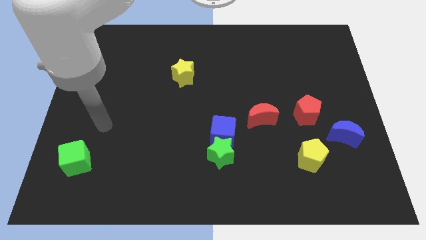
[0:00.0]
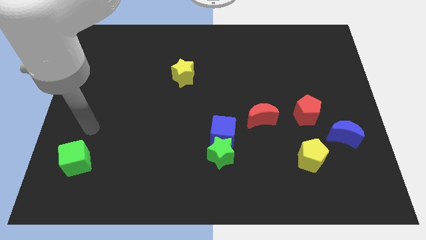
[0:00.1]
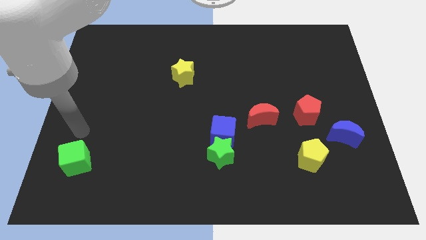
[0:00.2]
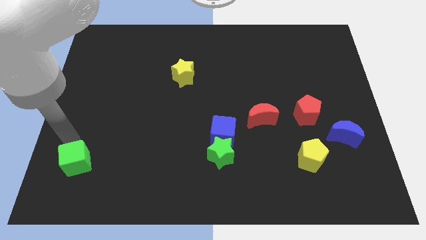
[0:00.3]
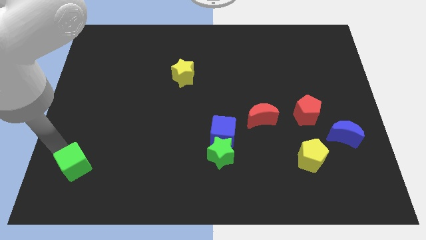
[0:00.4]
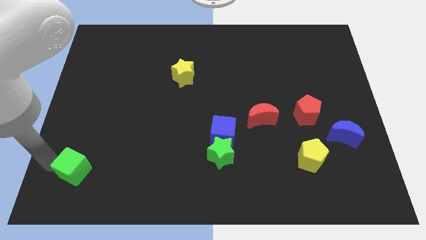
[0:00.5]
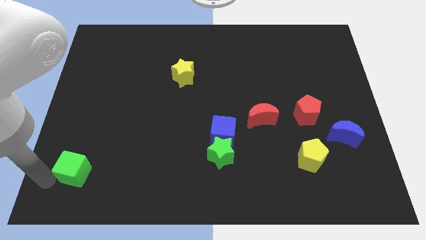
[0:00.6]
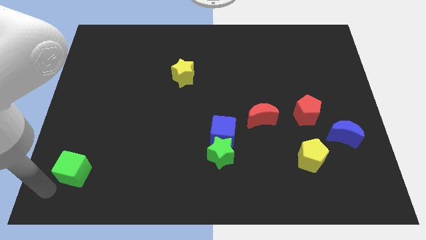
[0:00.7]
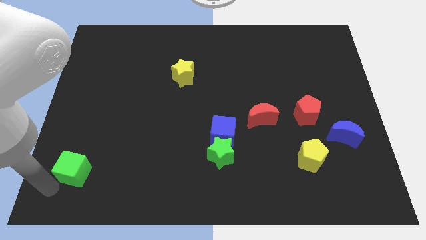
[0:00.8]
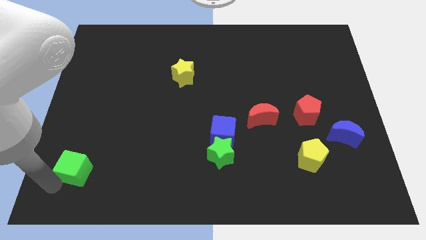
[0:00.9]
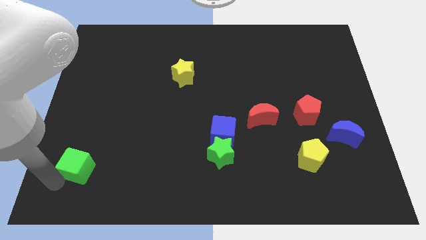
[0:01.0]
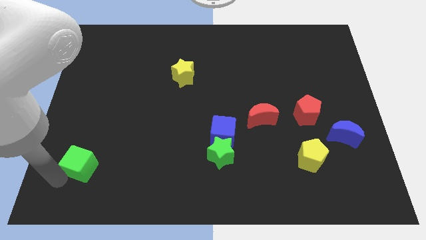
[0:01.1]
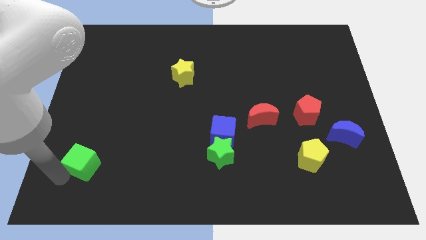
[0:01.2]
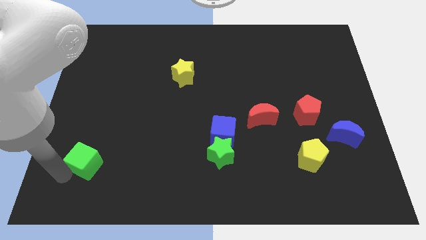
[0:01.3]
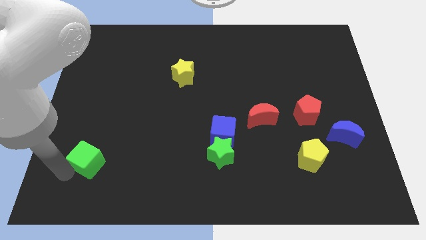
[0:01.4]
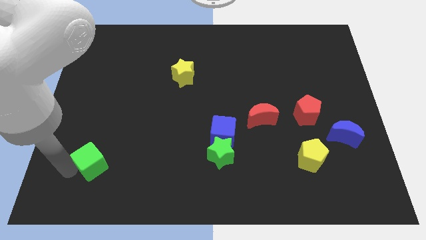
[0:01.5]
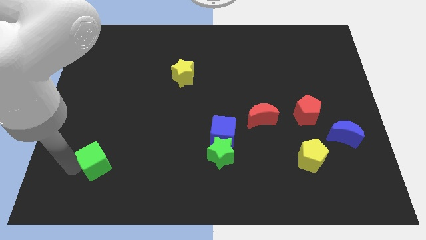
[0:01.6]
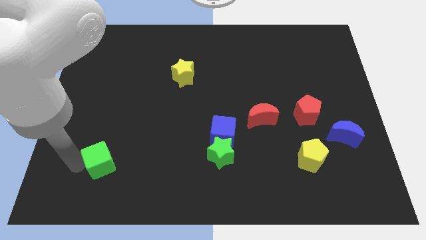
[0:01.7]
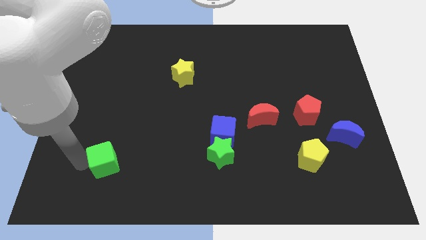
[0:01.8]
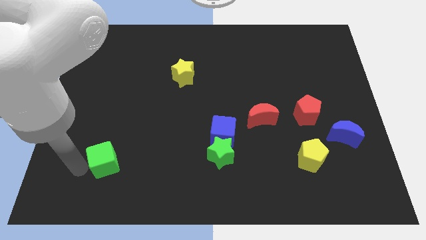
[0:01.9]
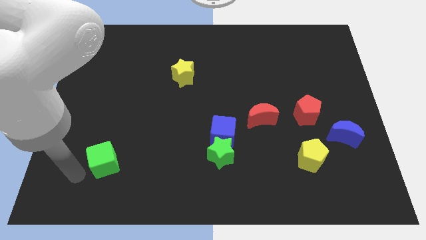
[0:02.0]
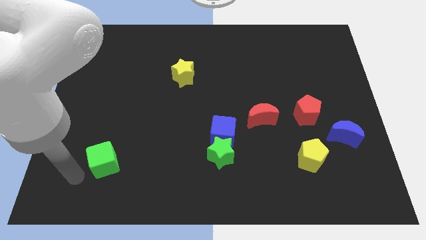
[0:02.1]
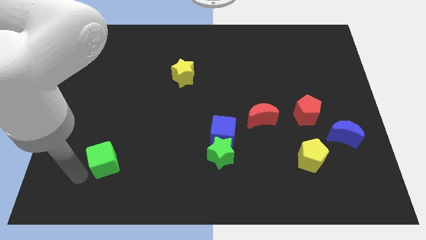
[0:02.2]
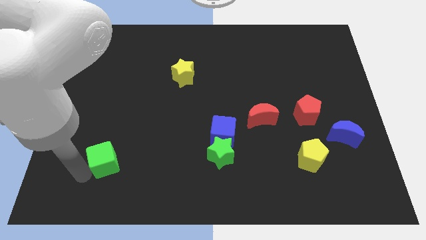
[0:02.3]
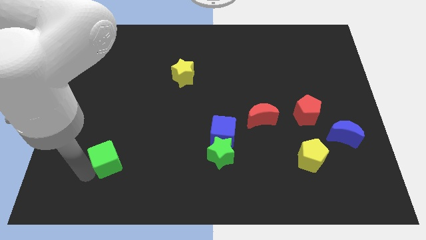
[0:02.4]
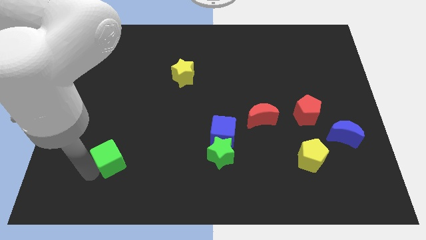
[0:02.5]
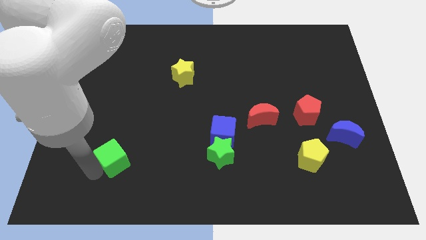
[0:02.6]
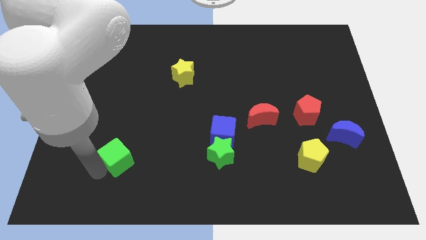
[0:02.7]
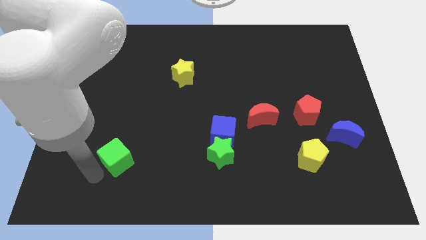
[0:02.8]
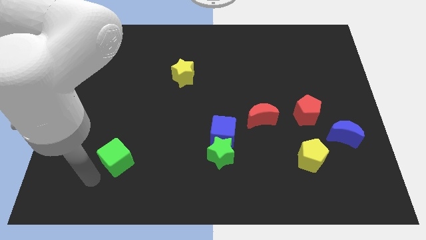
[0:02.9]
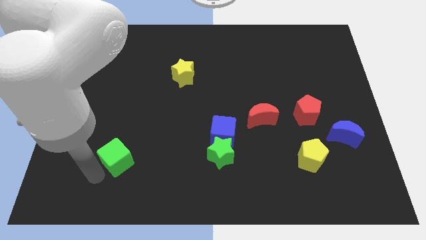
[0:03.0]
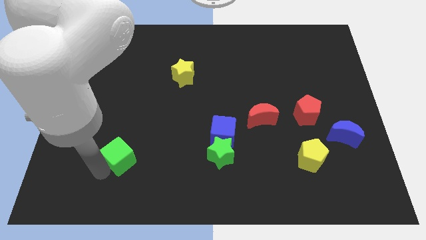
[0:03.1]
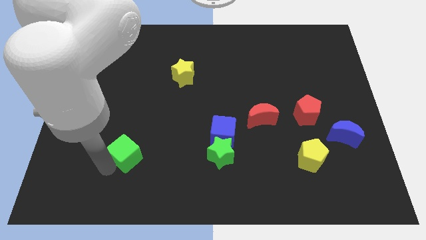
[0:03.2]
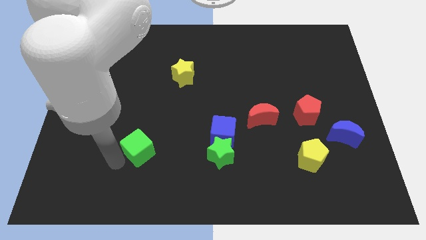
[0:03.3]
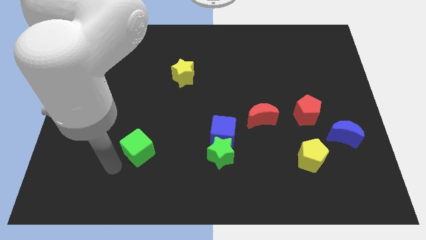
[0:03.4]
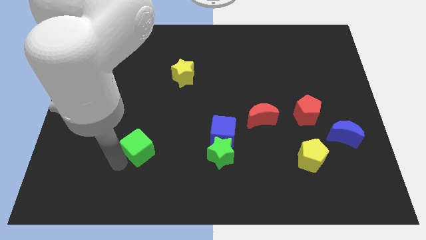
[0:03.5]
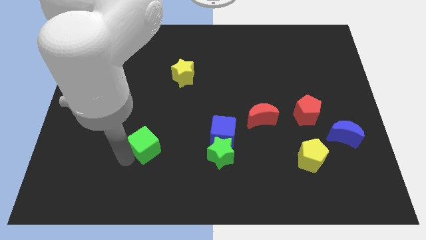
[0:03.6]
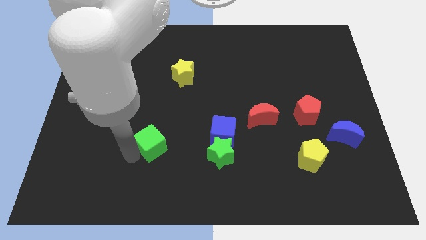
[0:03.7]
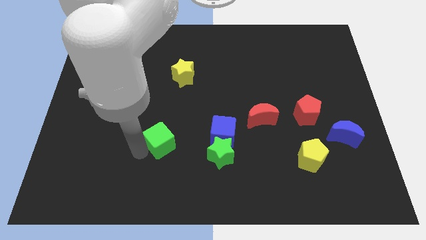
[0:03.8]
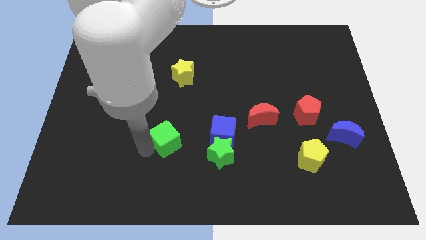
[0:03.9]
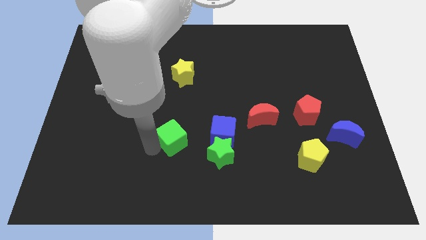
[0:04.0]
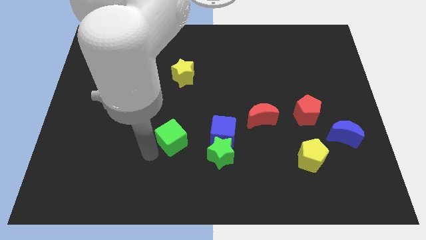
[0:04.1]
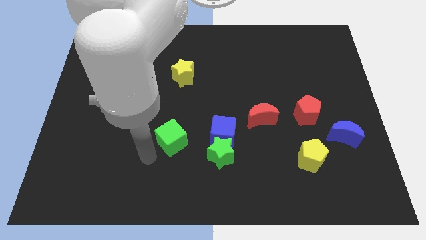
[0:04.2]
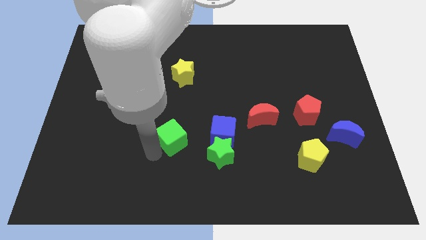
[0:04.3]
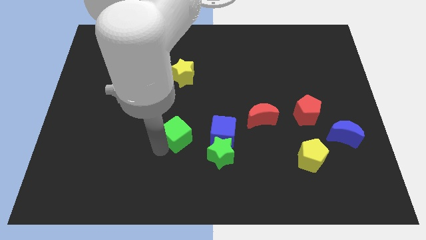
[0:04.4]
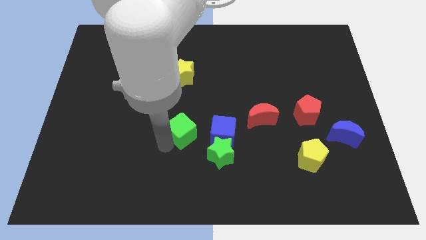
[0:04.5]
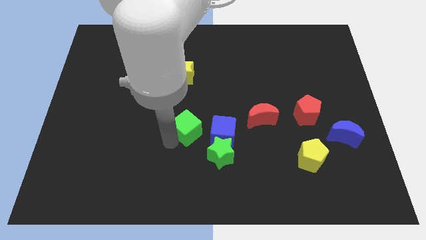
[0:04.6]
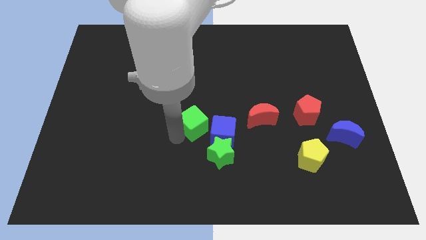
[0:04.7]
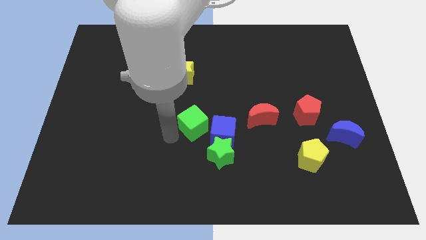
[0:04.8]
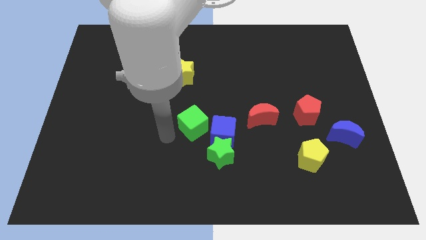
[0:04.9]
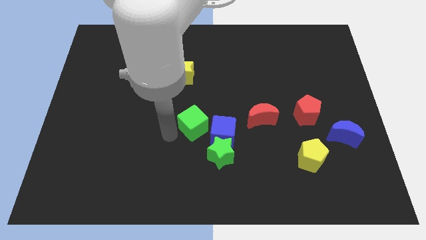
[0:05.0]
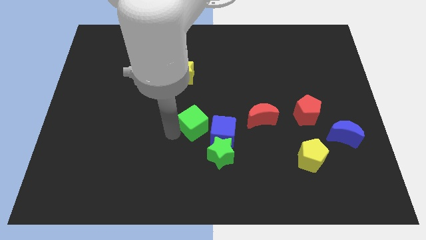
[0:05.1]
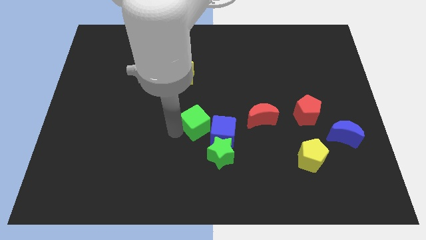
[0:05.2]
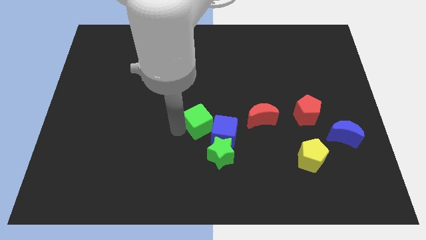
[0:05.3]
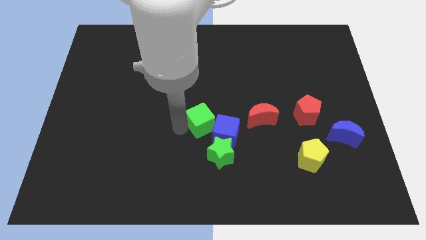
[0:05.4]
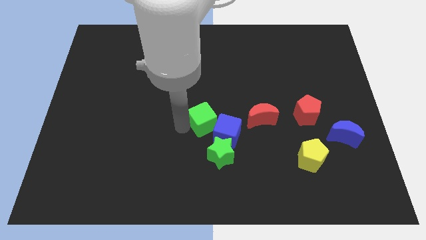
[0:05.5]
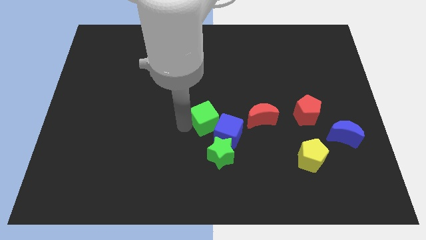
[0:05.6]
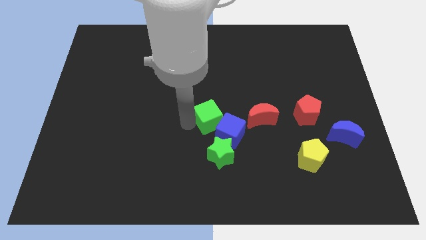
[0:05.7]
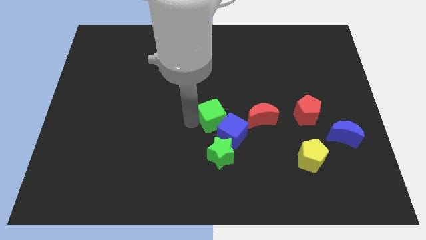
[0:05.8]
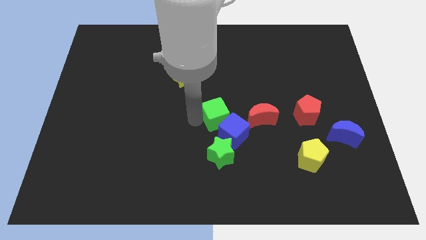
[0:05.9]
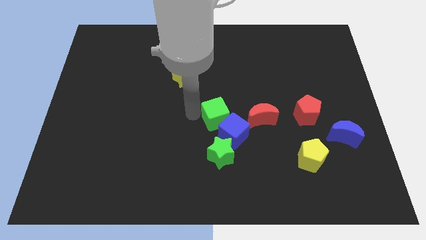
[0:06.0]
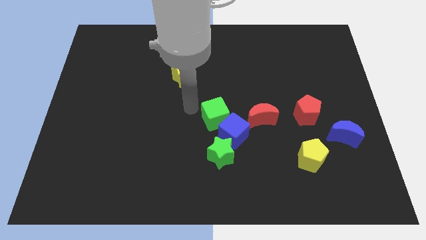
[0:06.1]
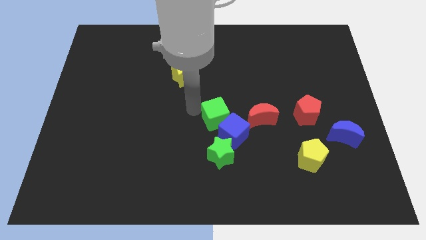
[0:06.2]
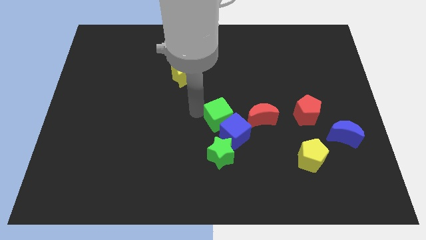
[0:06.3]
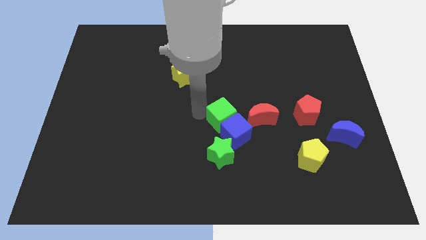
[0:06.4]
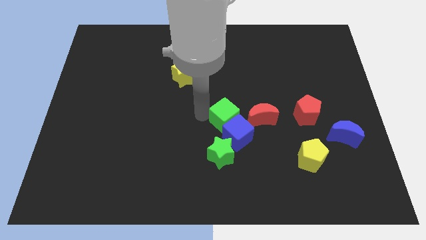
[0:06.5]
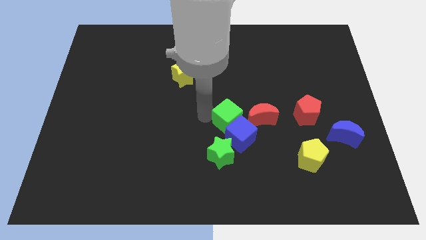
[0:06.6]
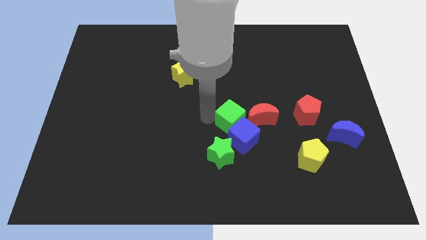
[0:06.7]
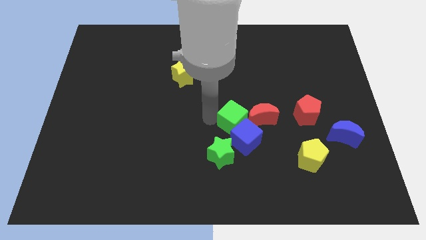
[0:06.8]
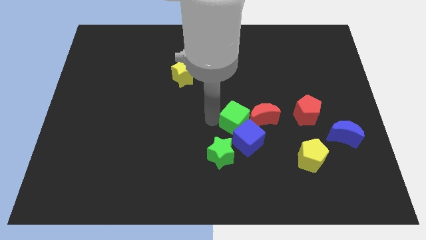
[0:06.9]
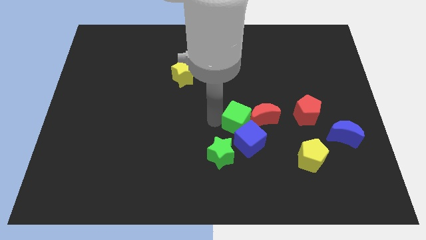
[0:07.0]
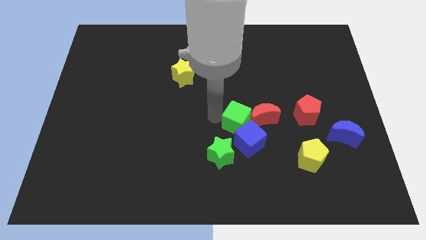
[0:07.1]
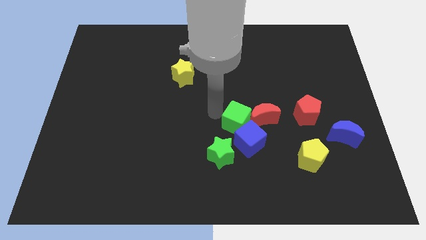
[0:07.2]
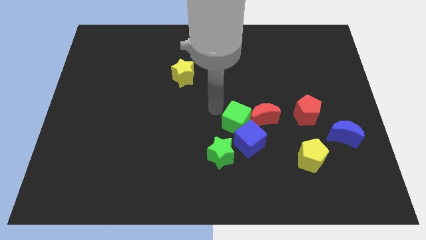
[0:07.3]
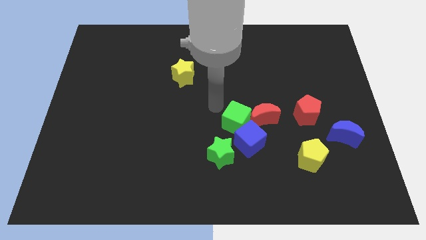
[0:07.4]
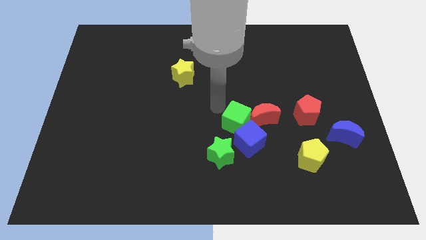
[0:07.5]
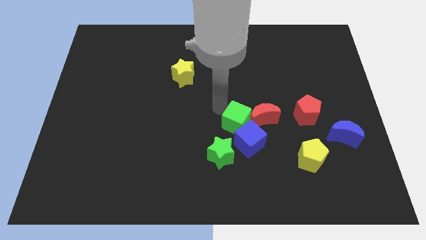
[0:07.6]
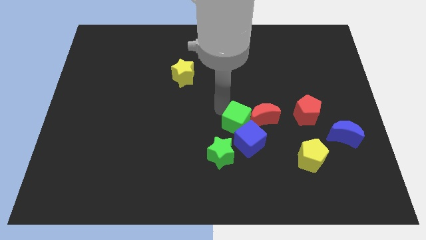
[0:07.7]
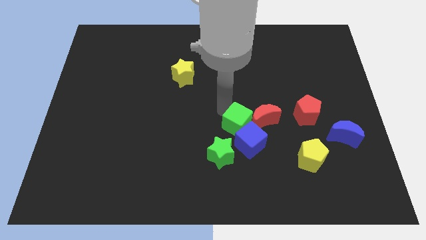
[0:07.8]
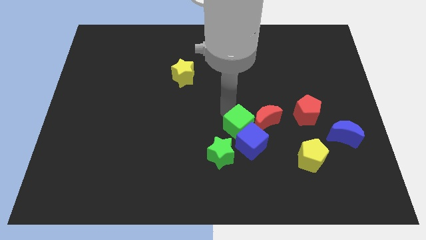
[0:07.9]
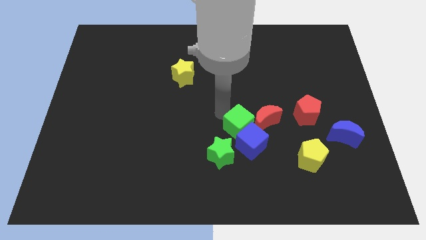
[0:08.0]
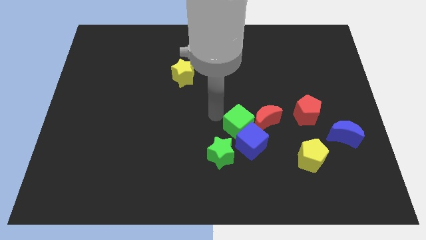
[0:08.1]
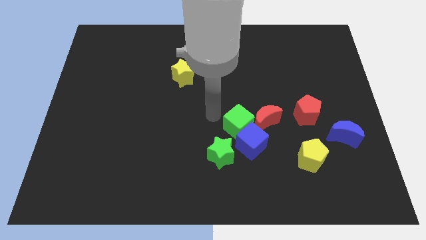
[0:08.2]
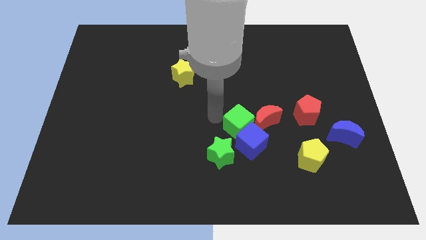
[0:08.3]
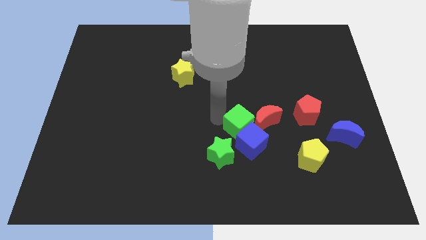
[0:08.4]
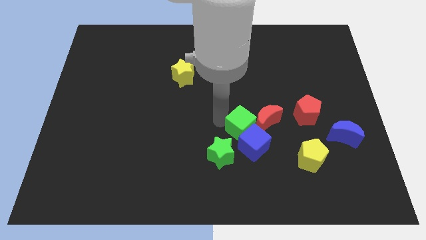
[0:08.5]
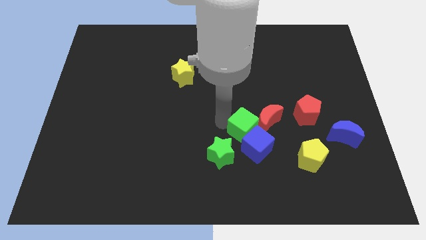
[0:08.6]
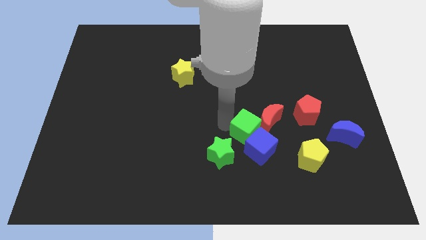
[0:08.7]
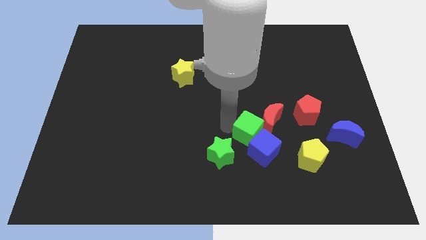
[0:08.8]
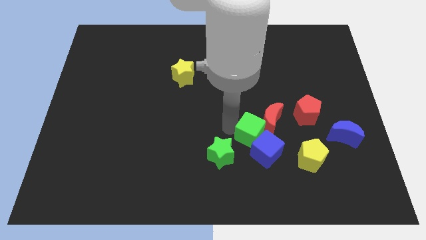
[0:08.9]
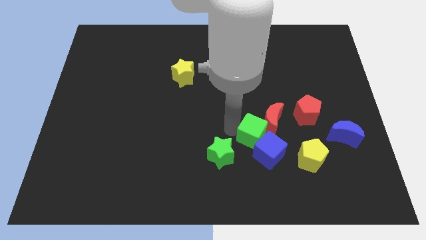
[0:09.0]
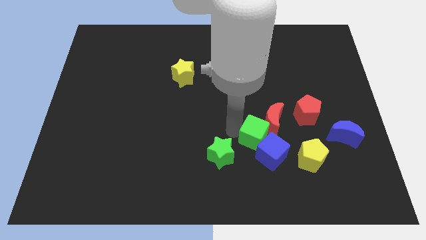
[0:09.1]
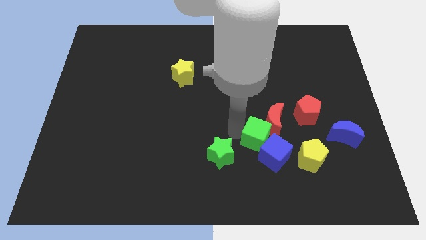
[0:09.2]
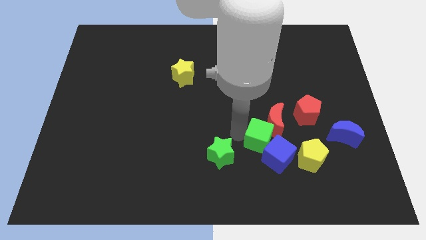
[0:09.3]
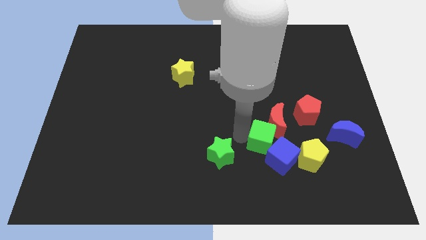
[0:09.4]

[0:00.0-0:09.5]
move the green cube diagonally up and to the left of the yellow pentagon
